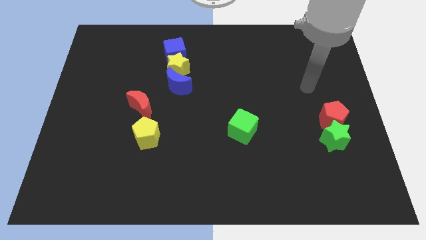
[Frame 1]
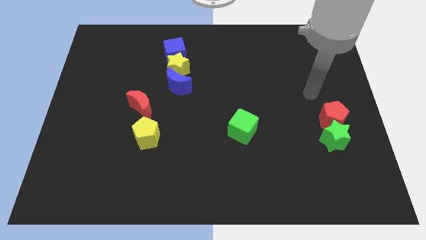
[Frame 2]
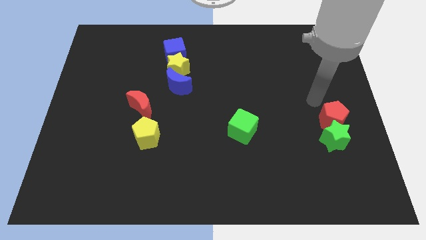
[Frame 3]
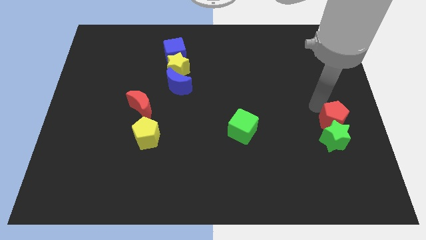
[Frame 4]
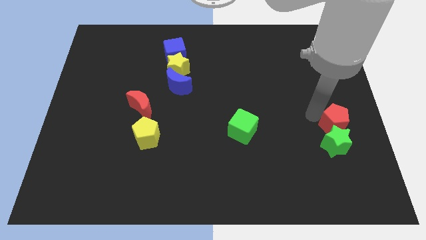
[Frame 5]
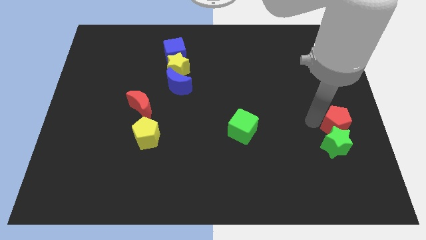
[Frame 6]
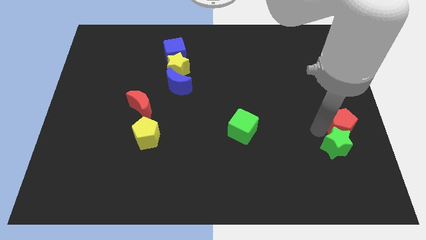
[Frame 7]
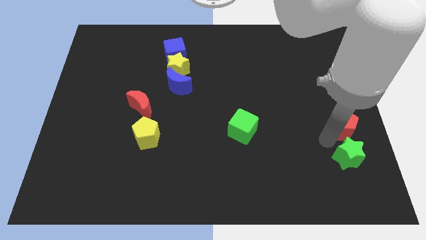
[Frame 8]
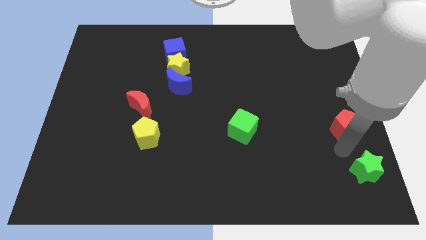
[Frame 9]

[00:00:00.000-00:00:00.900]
pull the red pentagon apart from the green star

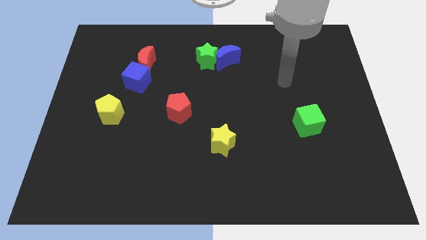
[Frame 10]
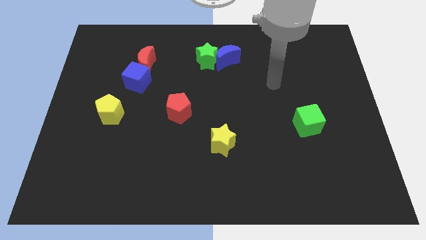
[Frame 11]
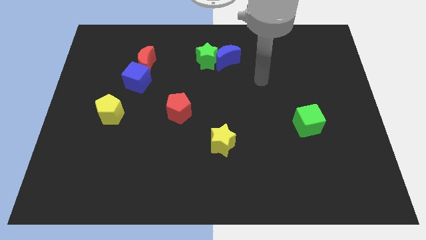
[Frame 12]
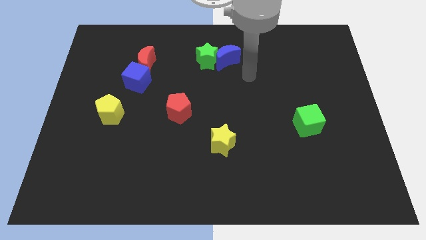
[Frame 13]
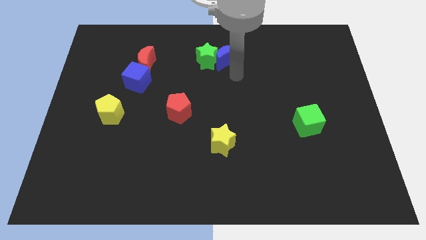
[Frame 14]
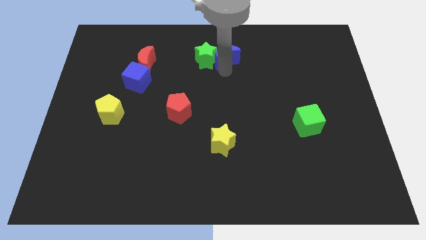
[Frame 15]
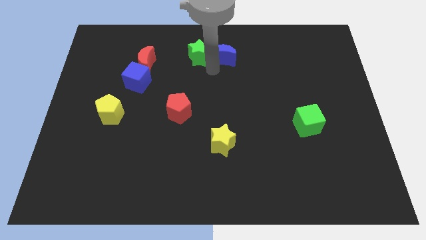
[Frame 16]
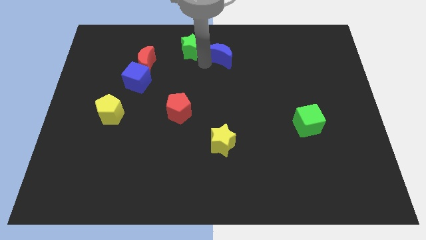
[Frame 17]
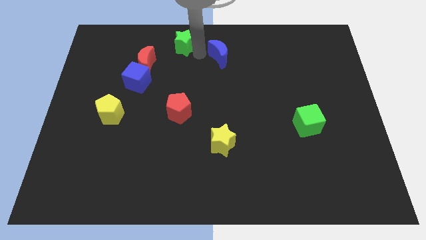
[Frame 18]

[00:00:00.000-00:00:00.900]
separate the blue moon from the green star

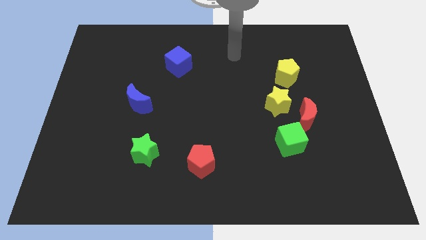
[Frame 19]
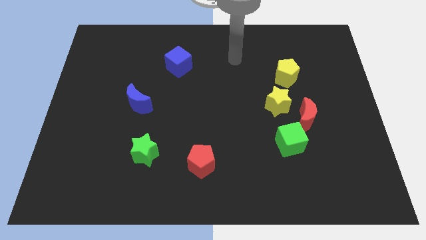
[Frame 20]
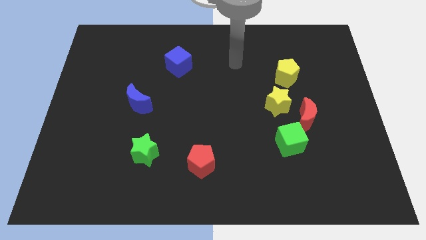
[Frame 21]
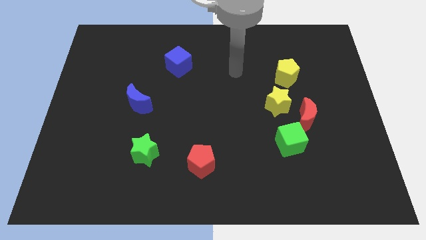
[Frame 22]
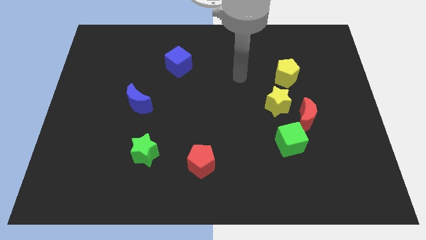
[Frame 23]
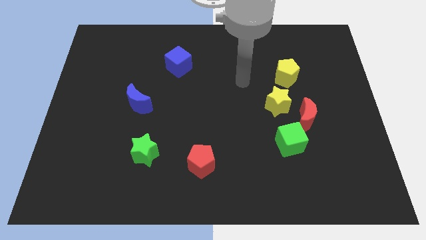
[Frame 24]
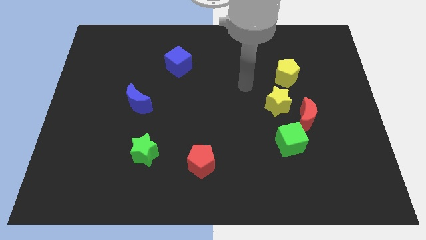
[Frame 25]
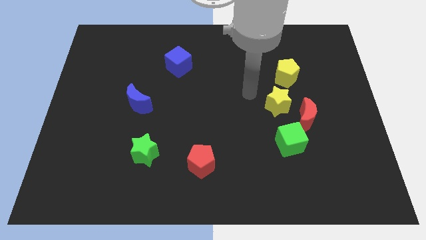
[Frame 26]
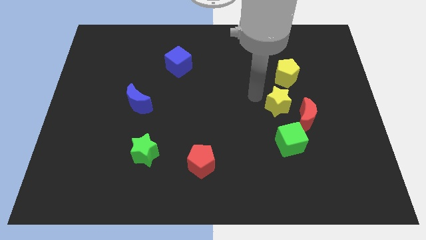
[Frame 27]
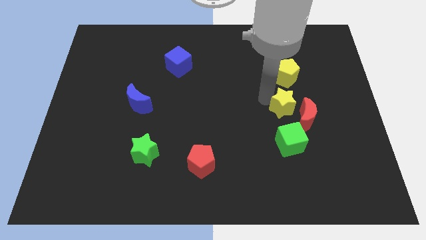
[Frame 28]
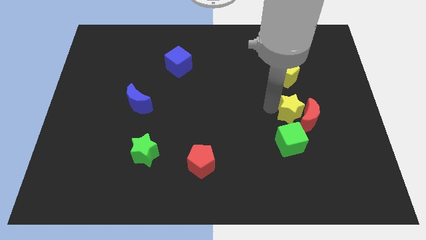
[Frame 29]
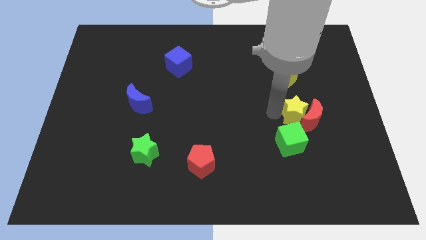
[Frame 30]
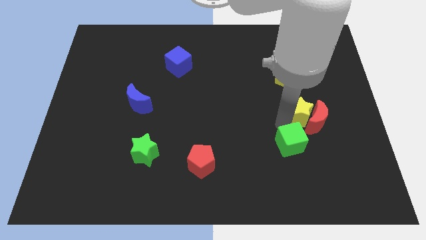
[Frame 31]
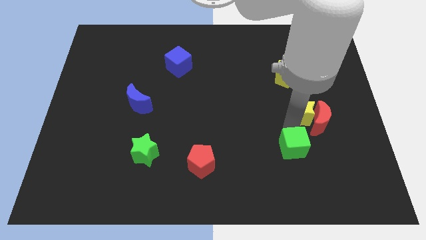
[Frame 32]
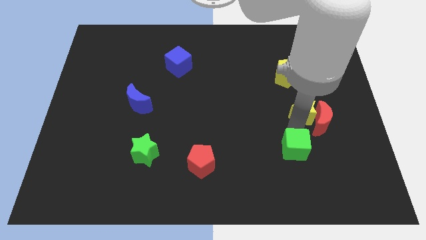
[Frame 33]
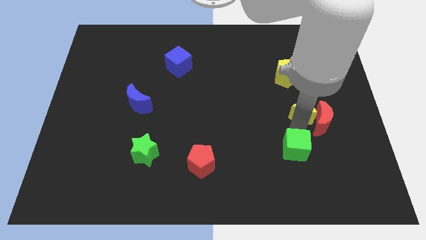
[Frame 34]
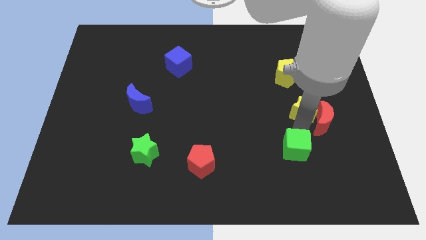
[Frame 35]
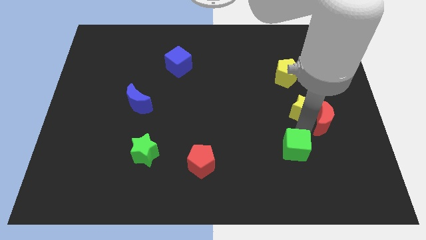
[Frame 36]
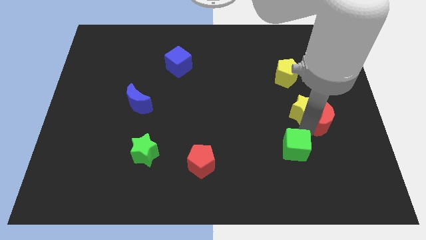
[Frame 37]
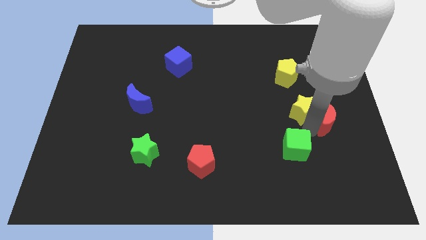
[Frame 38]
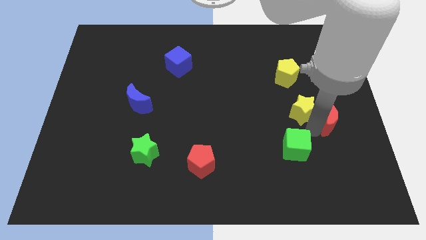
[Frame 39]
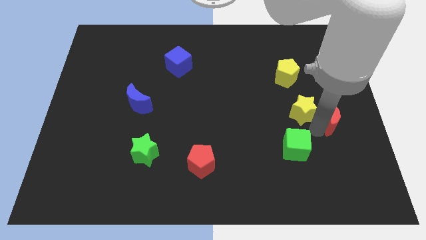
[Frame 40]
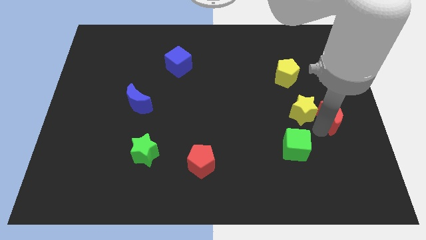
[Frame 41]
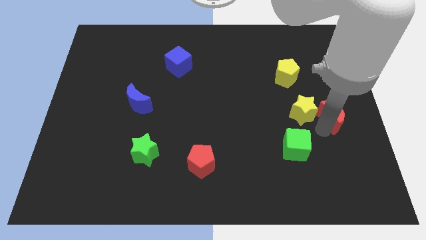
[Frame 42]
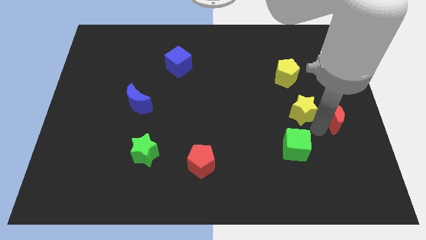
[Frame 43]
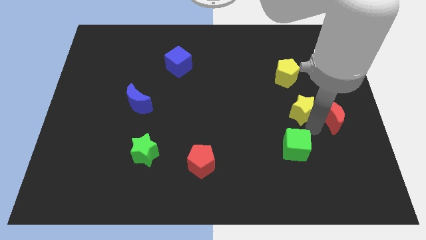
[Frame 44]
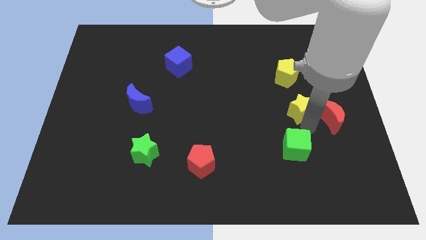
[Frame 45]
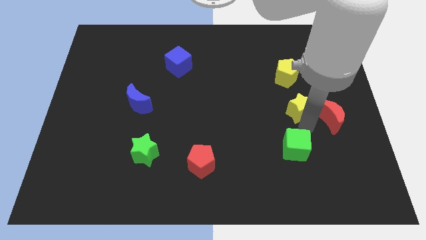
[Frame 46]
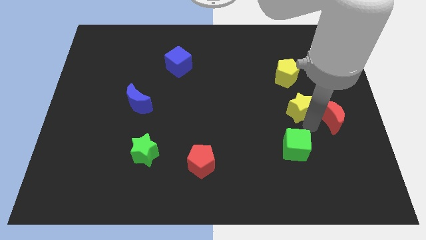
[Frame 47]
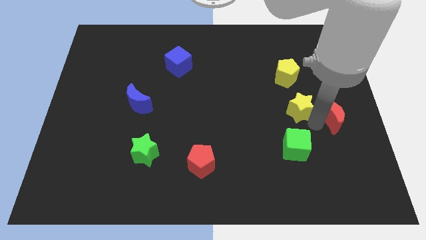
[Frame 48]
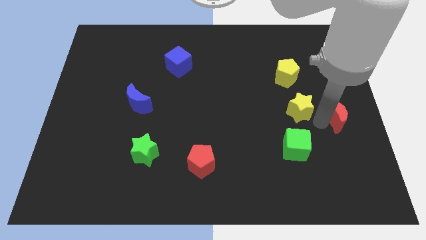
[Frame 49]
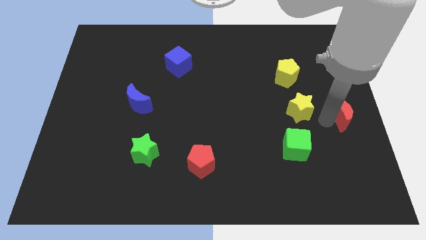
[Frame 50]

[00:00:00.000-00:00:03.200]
move the red moon away from the yellow star and green cube

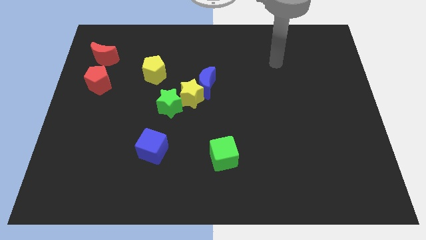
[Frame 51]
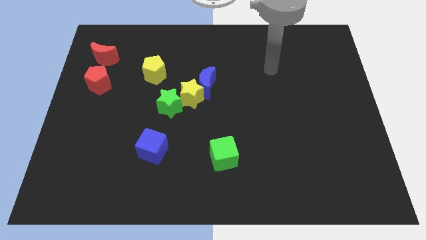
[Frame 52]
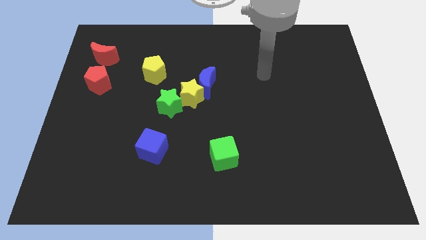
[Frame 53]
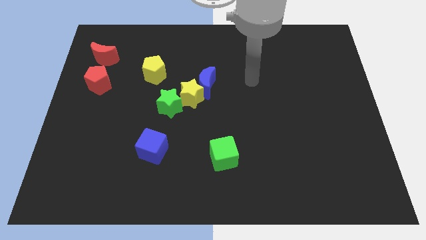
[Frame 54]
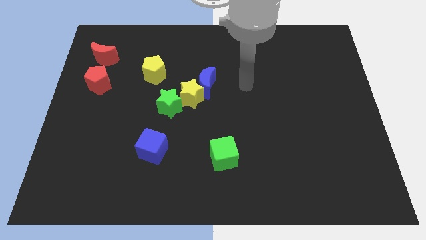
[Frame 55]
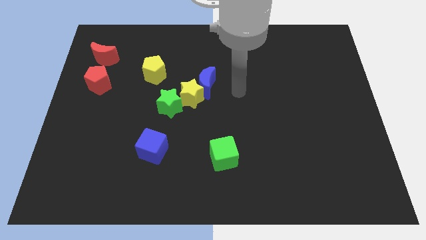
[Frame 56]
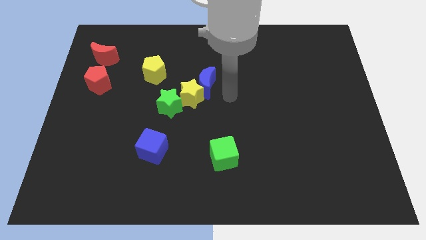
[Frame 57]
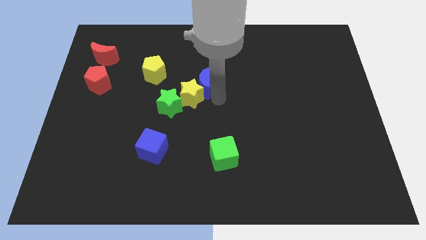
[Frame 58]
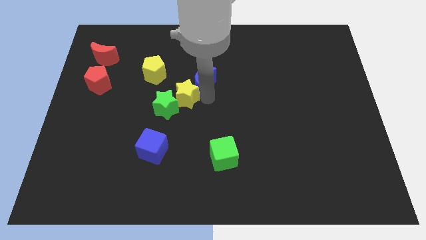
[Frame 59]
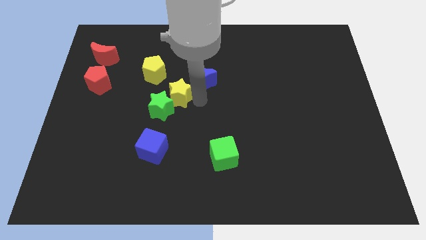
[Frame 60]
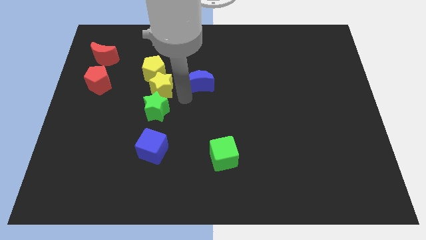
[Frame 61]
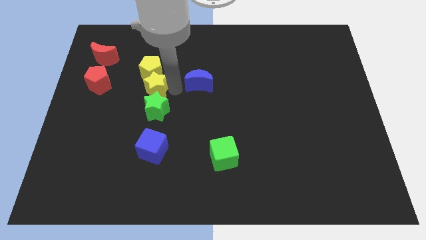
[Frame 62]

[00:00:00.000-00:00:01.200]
separate the blue moon from the yellow star

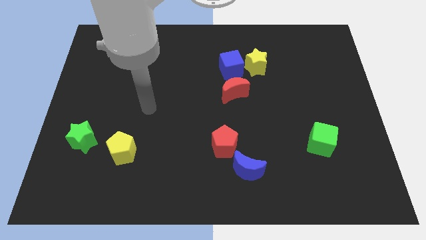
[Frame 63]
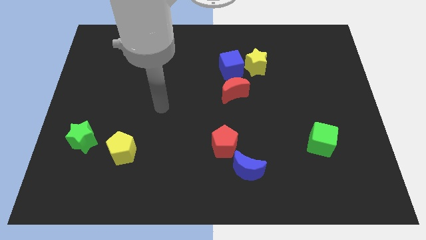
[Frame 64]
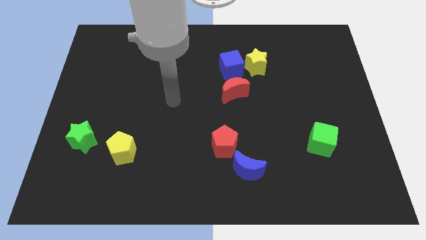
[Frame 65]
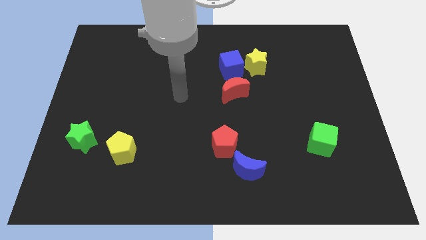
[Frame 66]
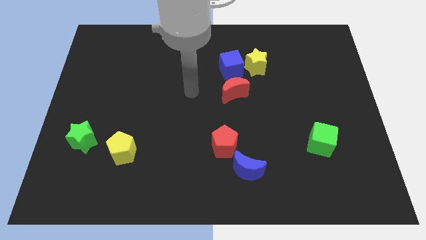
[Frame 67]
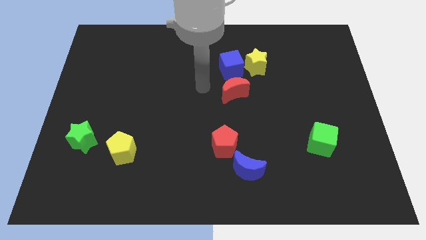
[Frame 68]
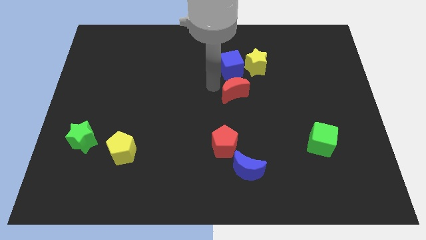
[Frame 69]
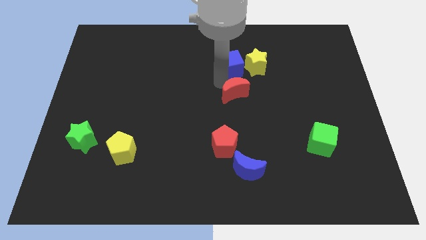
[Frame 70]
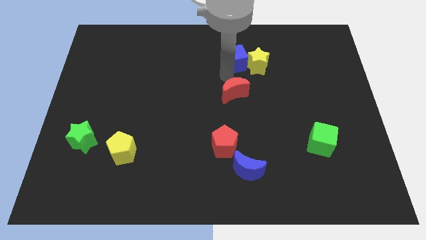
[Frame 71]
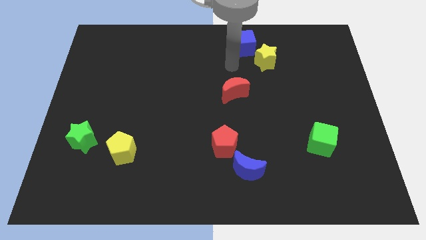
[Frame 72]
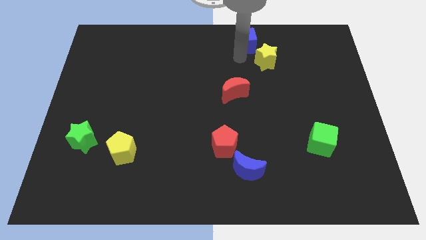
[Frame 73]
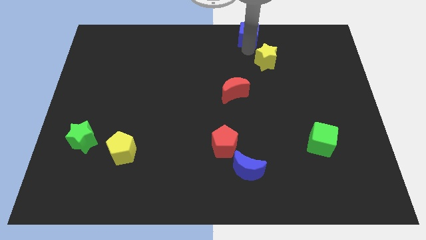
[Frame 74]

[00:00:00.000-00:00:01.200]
separate the yellow star from the blue cube

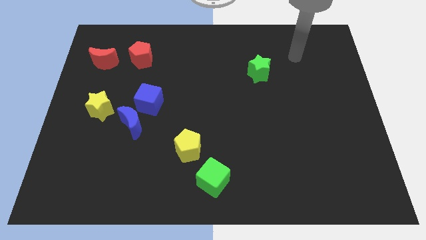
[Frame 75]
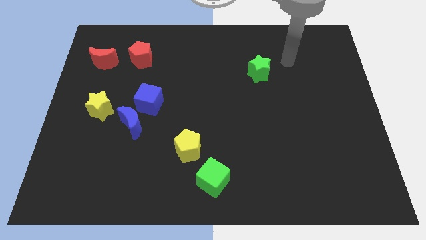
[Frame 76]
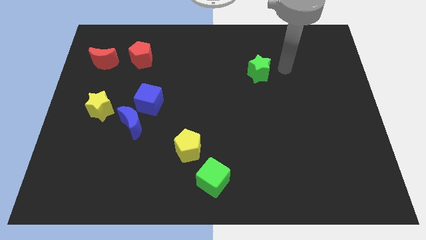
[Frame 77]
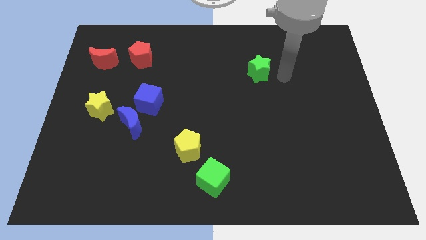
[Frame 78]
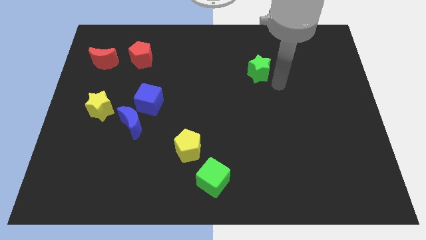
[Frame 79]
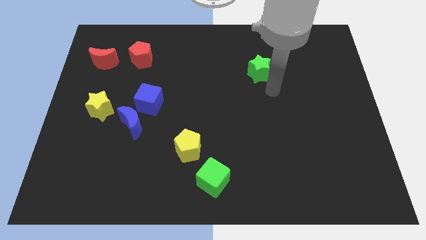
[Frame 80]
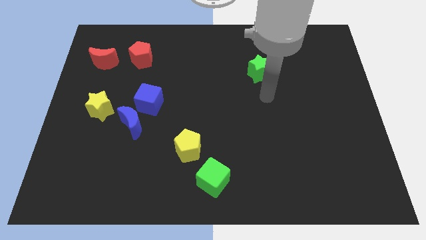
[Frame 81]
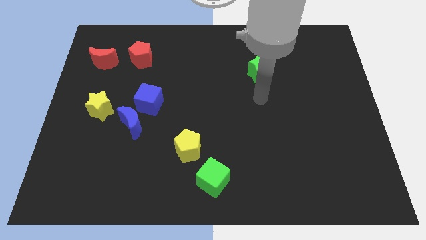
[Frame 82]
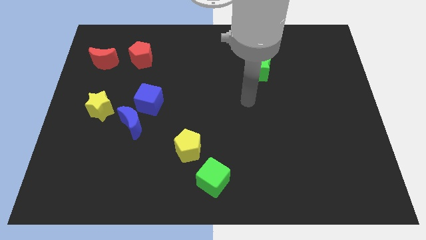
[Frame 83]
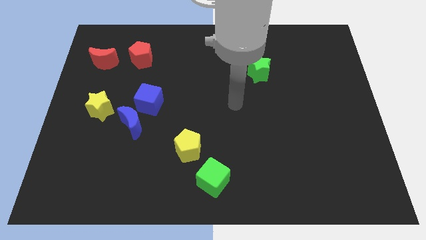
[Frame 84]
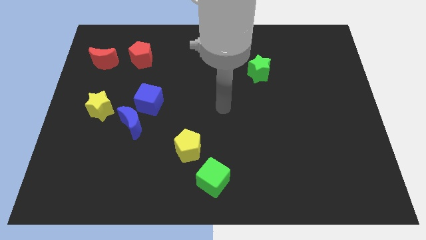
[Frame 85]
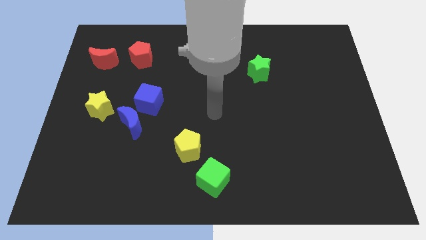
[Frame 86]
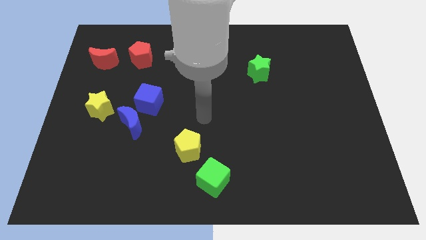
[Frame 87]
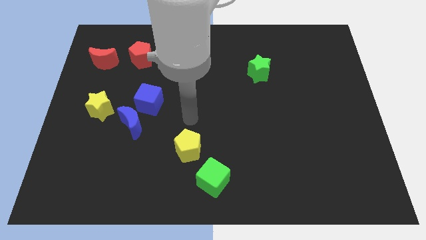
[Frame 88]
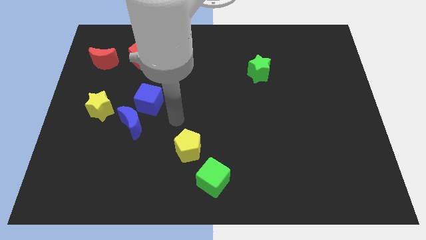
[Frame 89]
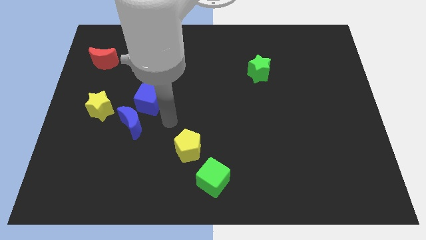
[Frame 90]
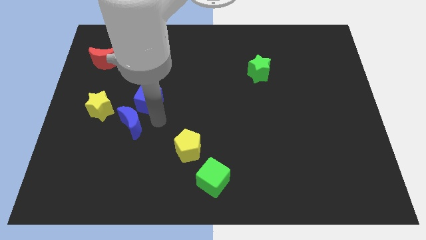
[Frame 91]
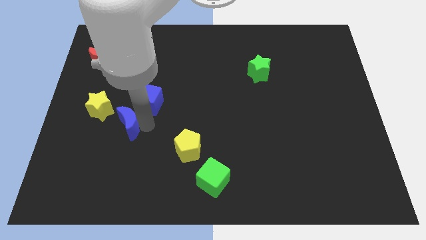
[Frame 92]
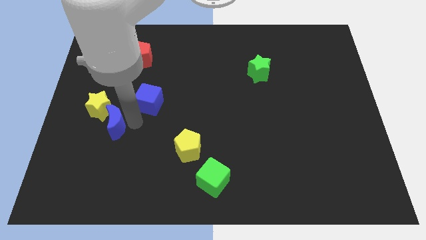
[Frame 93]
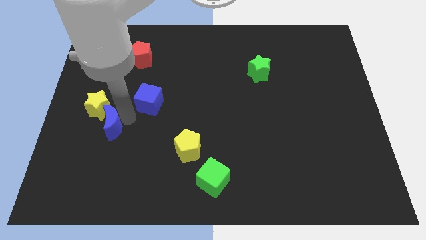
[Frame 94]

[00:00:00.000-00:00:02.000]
separate the blue cube from the blue moon
